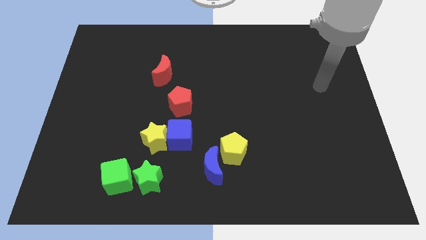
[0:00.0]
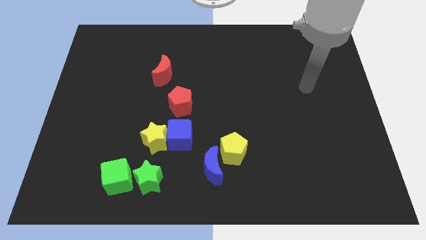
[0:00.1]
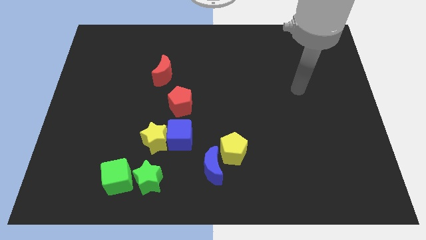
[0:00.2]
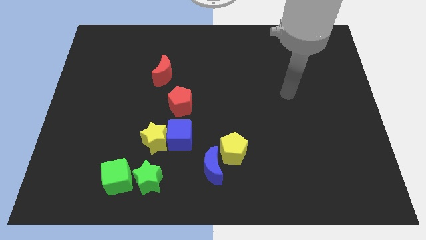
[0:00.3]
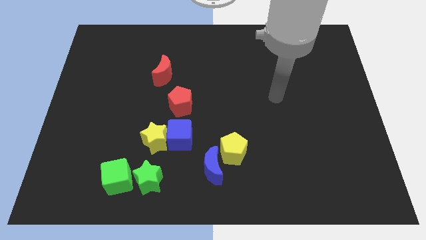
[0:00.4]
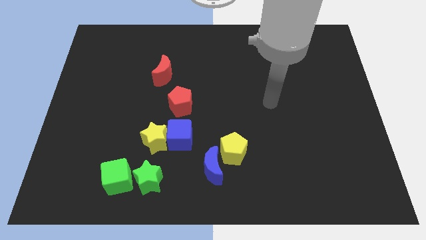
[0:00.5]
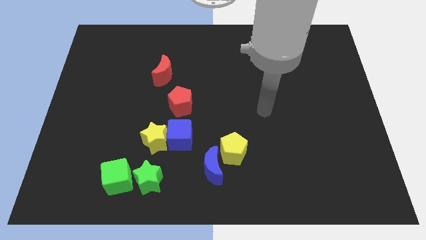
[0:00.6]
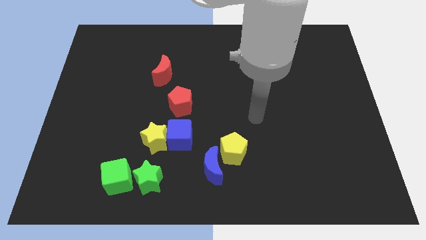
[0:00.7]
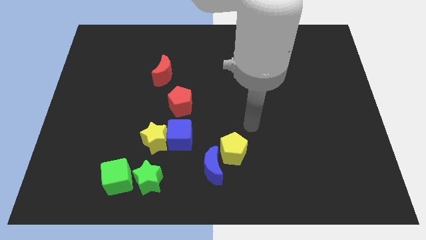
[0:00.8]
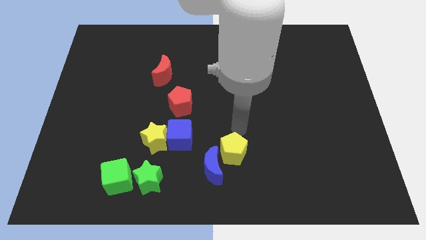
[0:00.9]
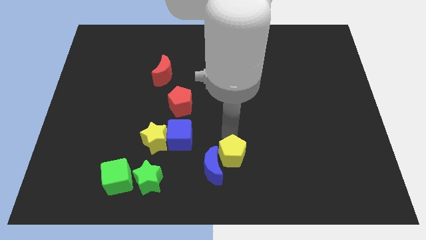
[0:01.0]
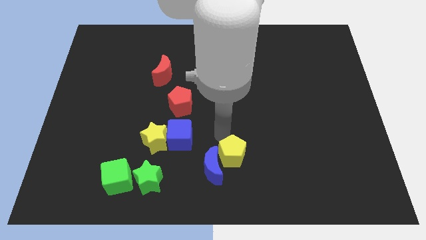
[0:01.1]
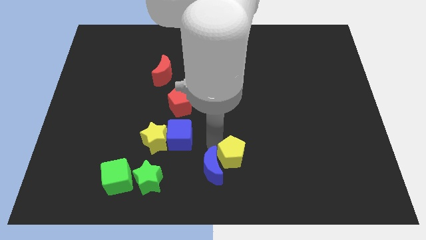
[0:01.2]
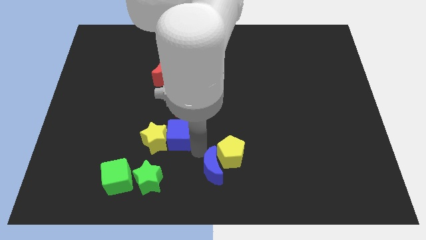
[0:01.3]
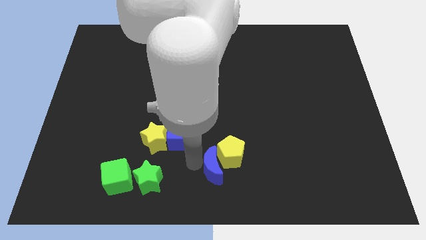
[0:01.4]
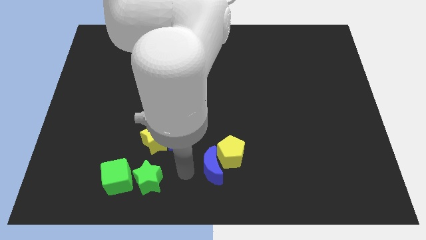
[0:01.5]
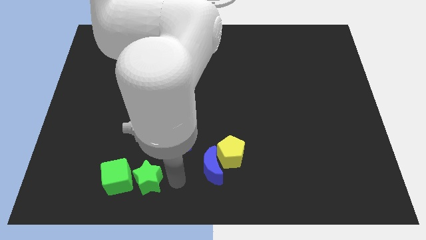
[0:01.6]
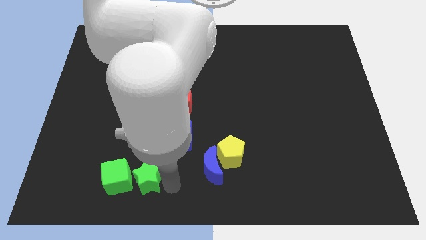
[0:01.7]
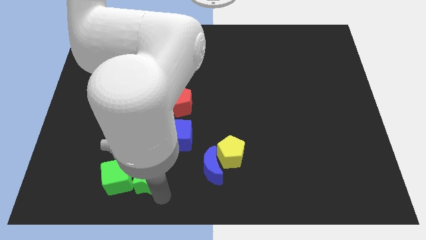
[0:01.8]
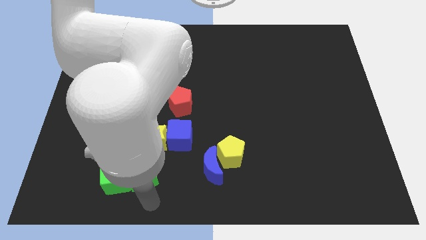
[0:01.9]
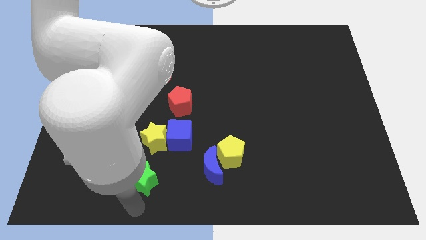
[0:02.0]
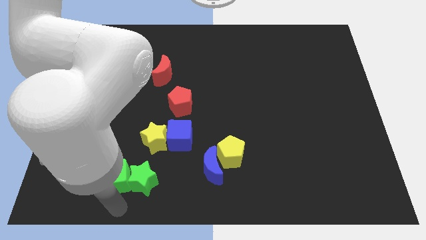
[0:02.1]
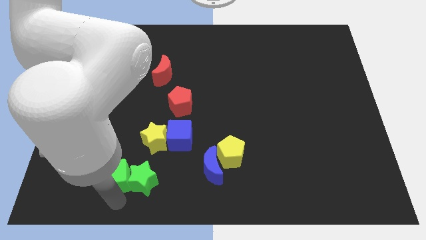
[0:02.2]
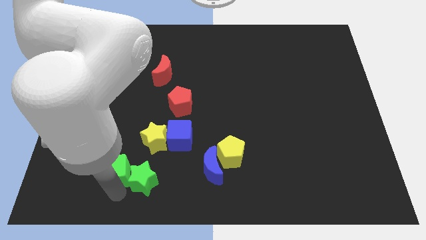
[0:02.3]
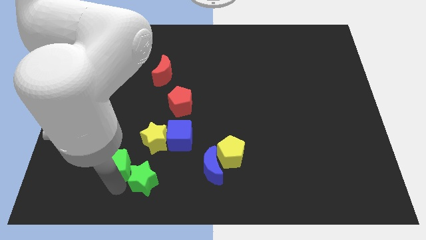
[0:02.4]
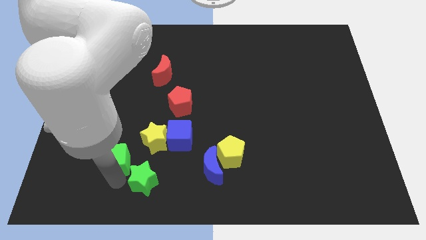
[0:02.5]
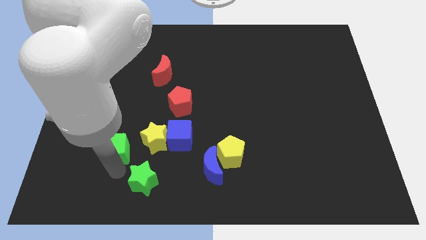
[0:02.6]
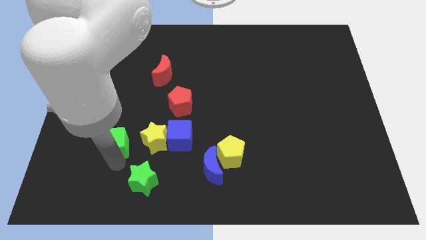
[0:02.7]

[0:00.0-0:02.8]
slightly push the green cube upwards

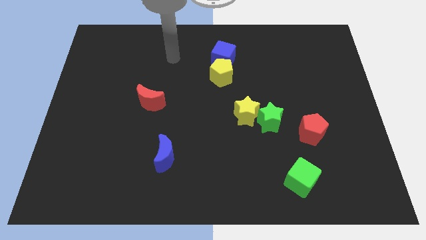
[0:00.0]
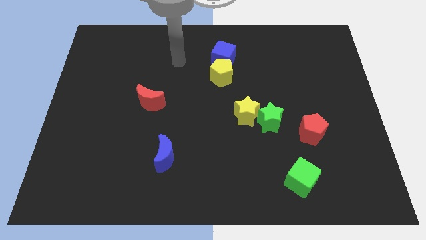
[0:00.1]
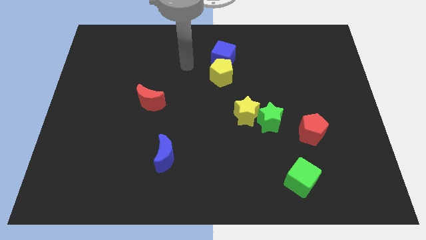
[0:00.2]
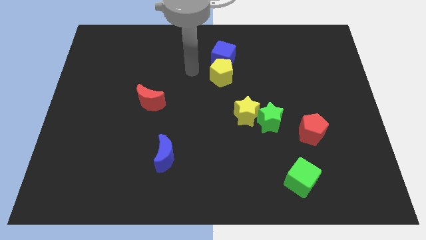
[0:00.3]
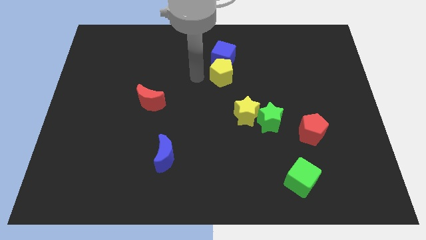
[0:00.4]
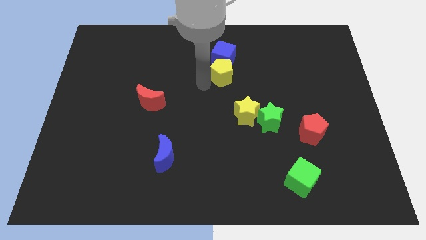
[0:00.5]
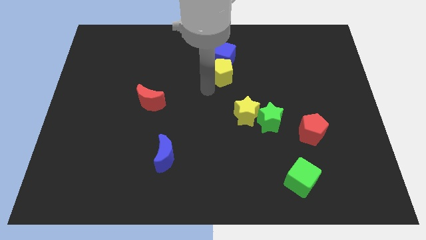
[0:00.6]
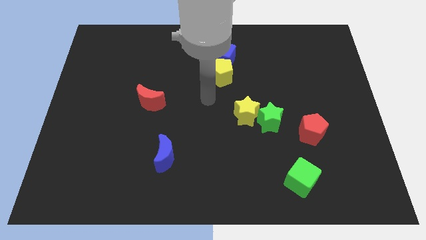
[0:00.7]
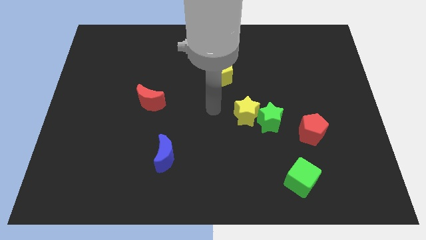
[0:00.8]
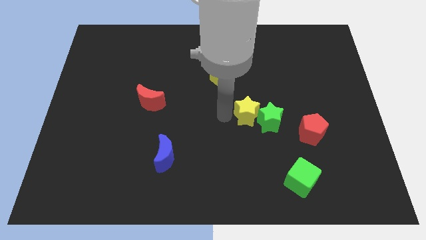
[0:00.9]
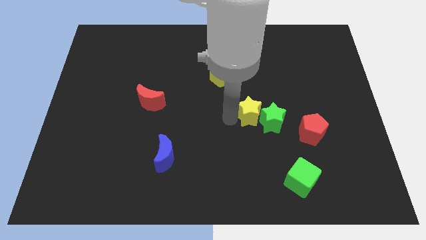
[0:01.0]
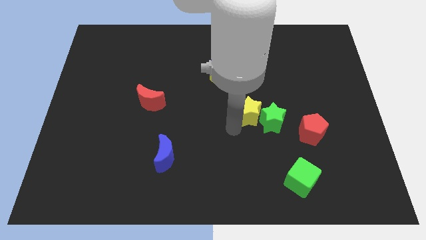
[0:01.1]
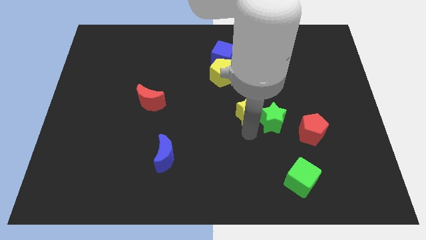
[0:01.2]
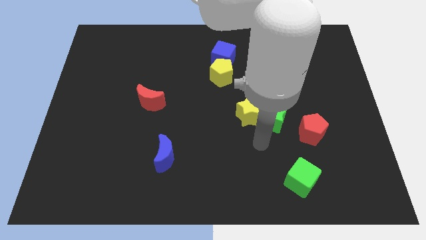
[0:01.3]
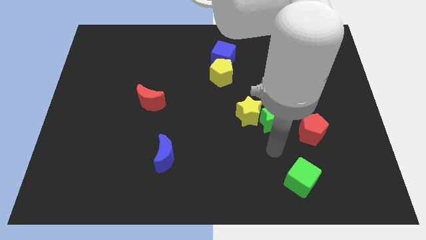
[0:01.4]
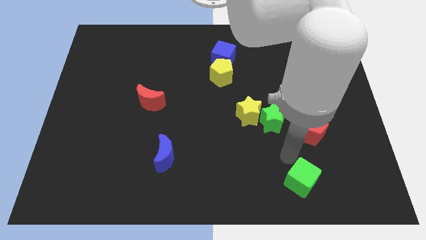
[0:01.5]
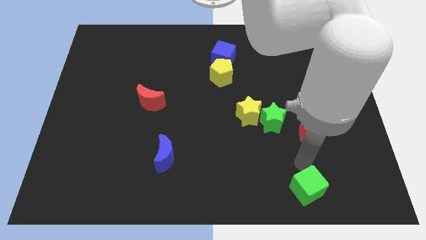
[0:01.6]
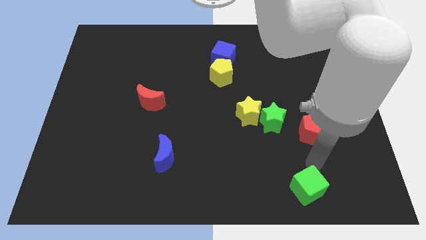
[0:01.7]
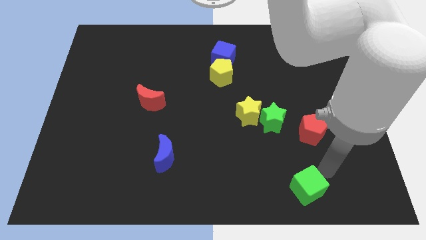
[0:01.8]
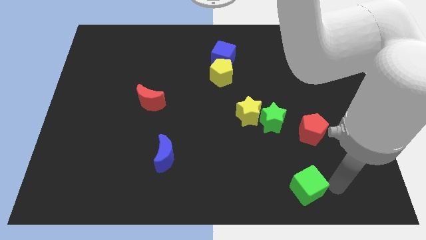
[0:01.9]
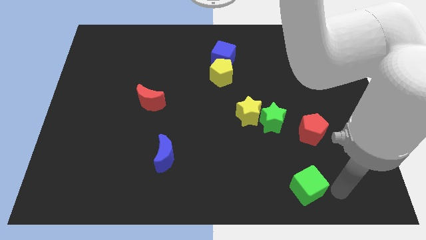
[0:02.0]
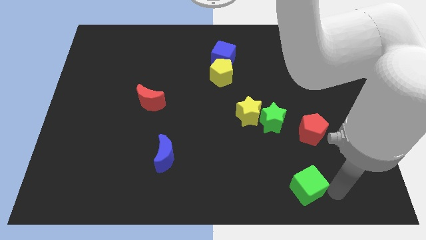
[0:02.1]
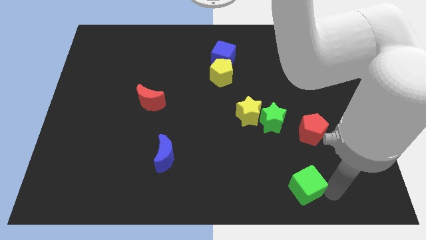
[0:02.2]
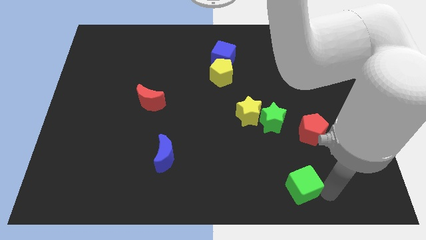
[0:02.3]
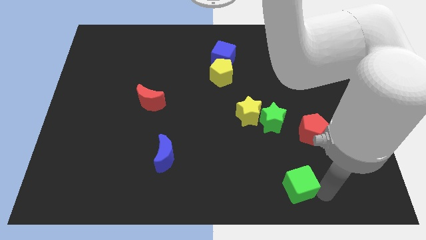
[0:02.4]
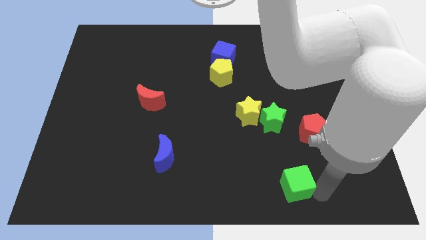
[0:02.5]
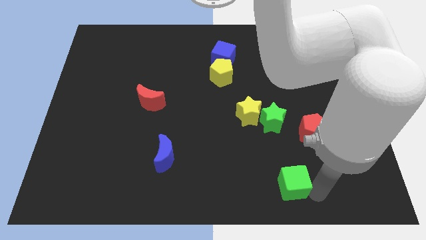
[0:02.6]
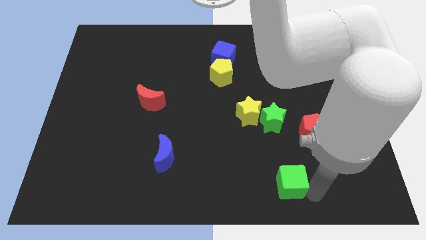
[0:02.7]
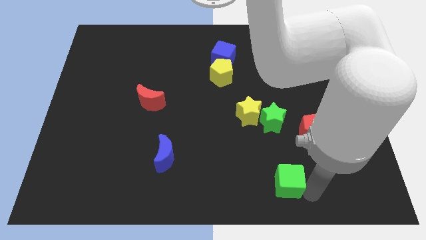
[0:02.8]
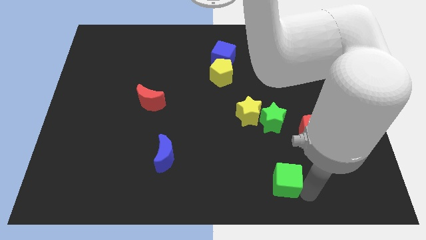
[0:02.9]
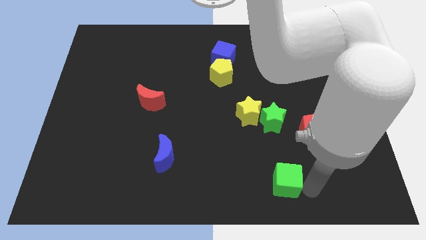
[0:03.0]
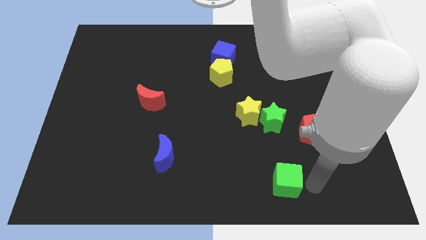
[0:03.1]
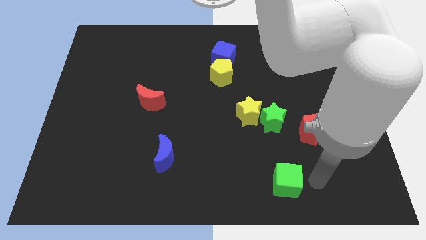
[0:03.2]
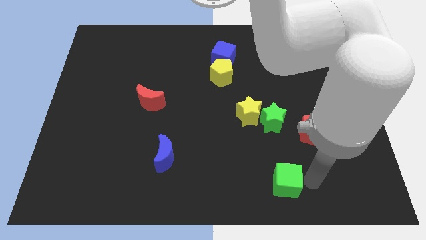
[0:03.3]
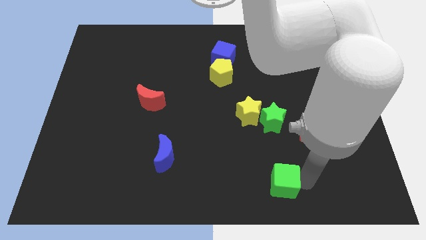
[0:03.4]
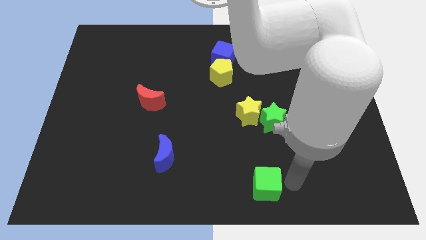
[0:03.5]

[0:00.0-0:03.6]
slightly move the green cube left

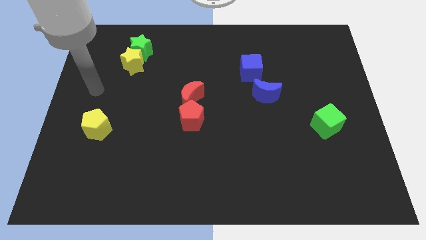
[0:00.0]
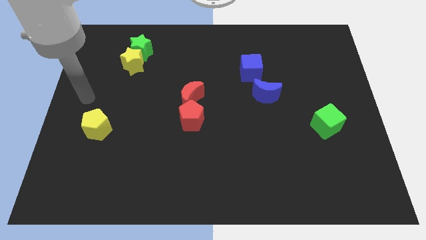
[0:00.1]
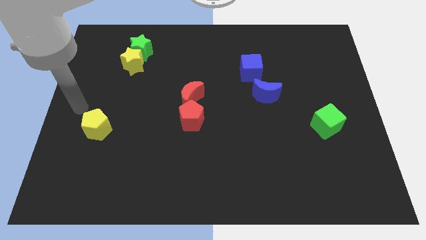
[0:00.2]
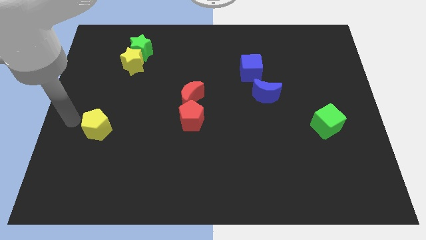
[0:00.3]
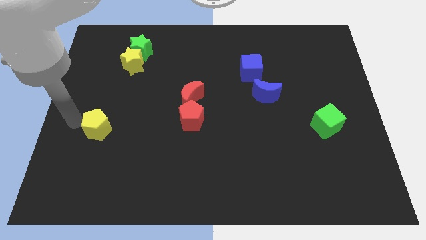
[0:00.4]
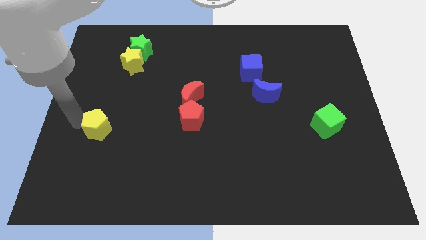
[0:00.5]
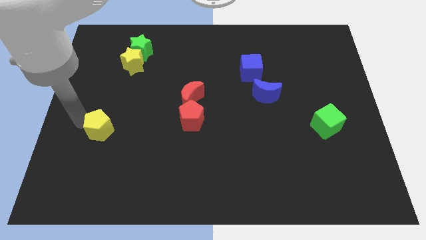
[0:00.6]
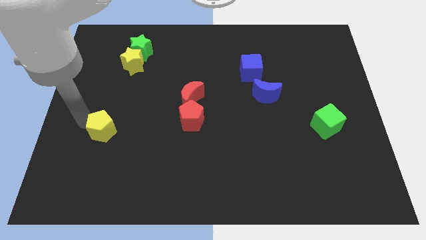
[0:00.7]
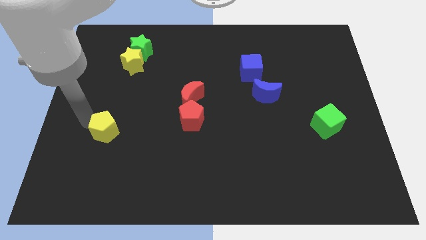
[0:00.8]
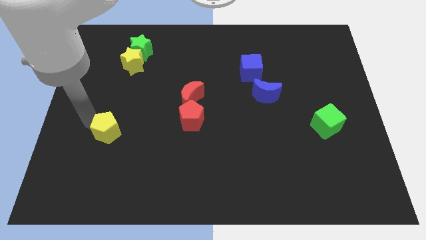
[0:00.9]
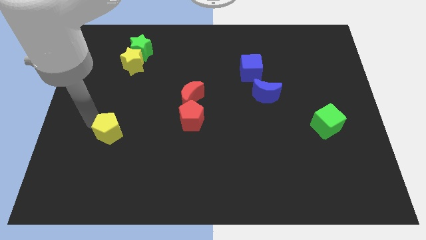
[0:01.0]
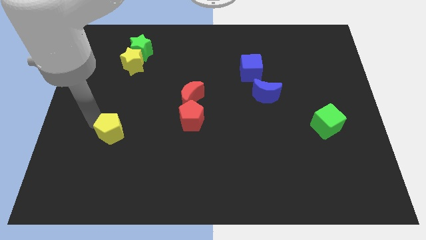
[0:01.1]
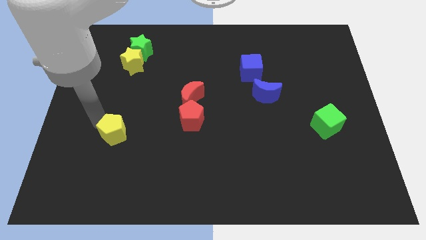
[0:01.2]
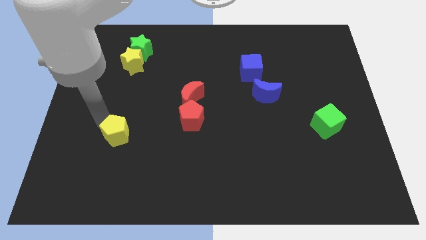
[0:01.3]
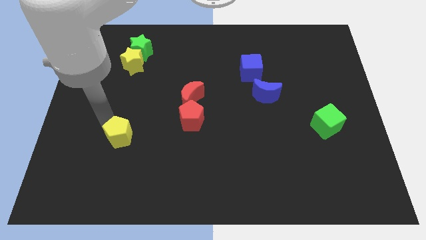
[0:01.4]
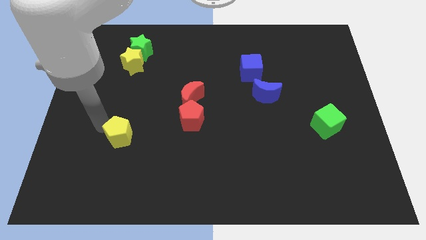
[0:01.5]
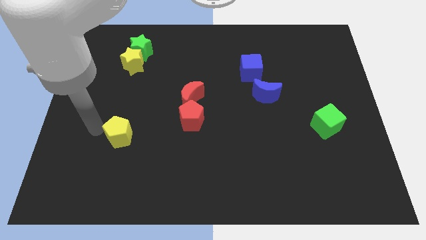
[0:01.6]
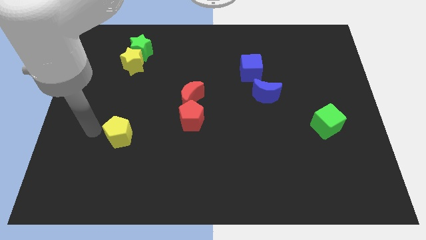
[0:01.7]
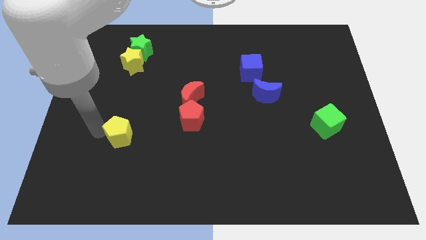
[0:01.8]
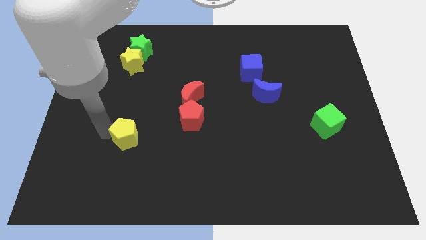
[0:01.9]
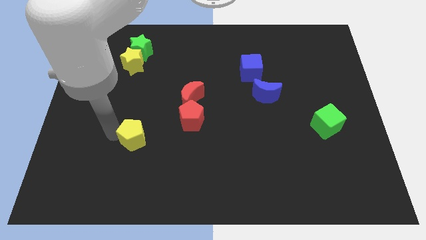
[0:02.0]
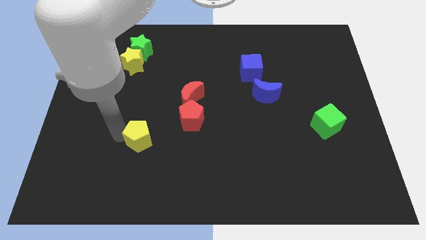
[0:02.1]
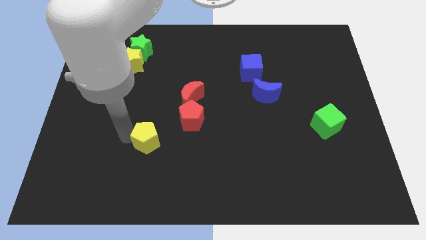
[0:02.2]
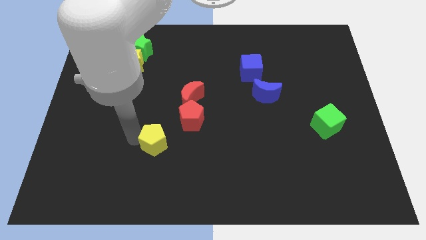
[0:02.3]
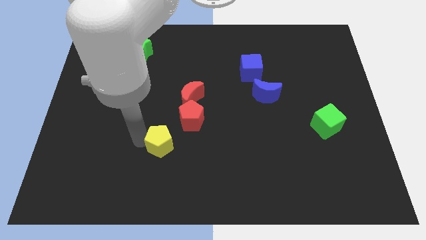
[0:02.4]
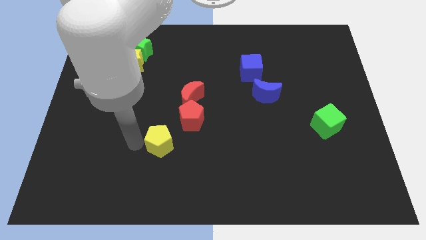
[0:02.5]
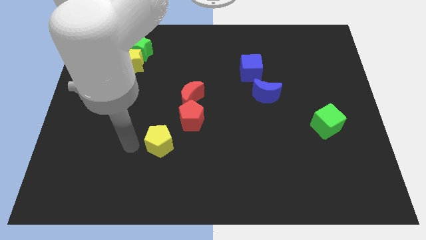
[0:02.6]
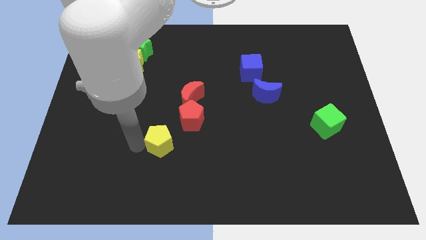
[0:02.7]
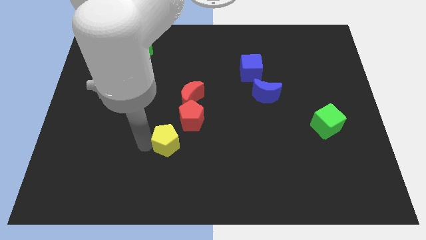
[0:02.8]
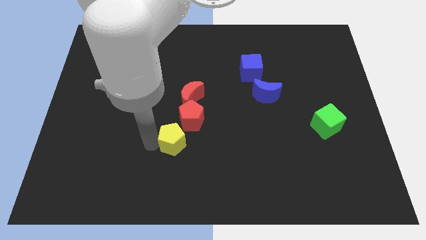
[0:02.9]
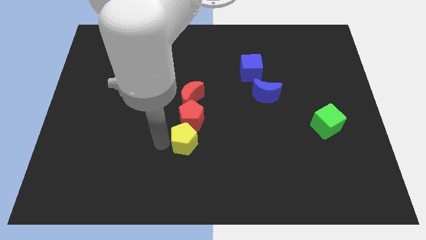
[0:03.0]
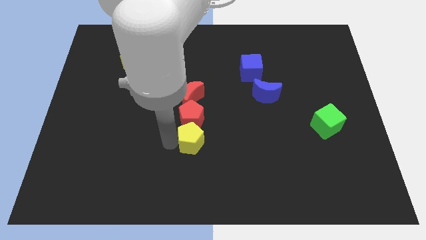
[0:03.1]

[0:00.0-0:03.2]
move the yellow pentagon right
